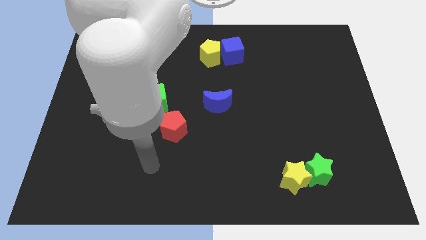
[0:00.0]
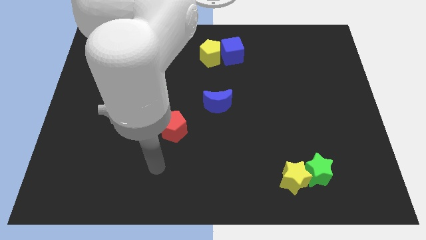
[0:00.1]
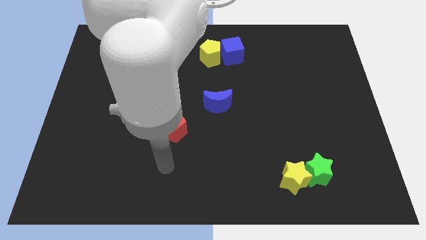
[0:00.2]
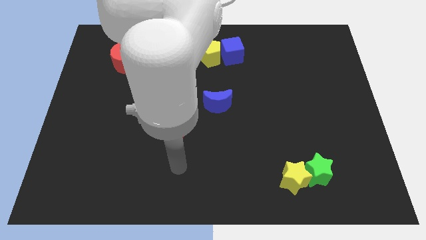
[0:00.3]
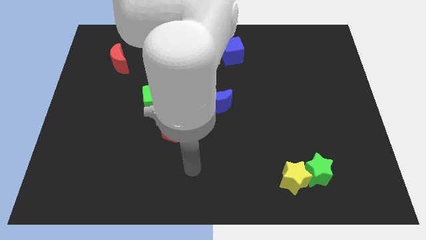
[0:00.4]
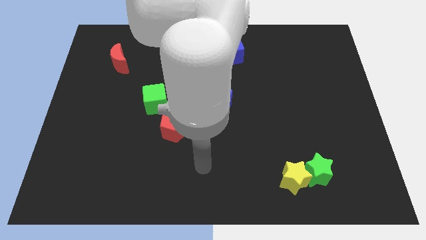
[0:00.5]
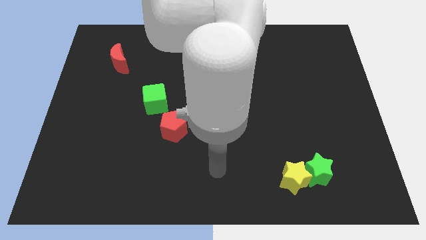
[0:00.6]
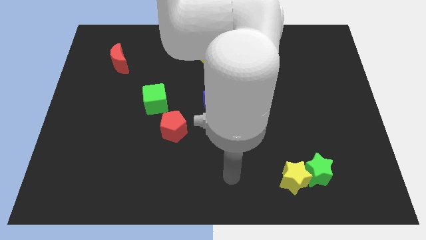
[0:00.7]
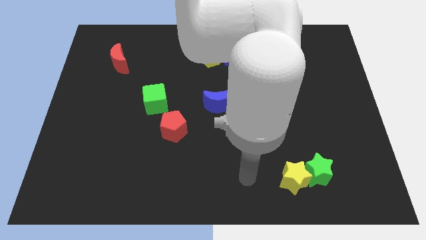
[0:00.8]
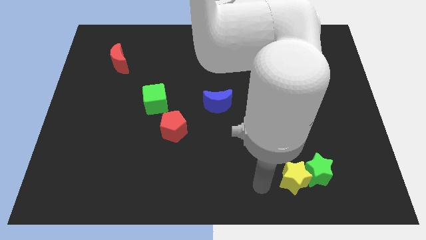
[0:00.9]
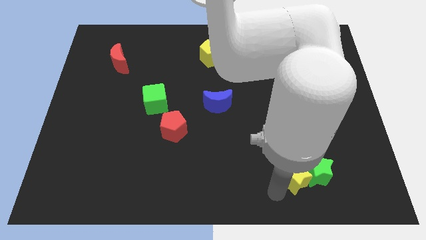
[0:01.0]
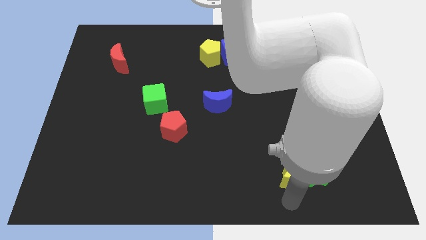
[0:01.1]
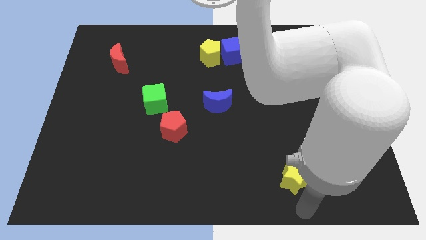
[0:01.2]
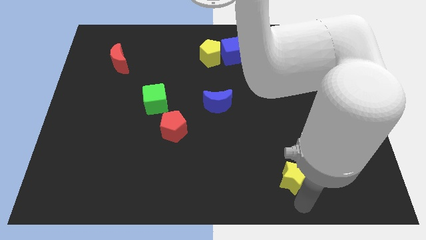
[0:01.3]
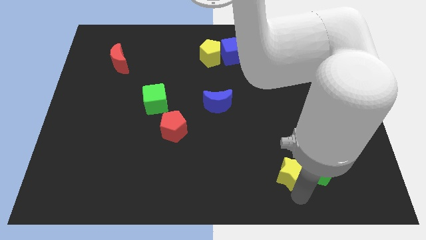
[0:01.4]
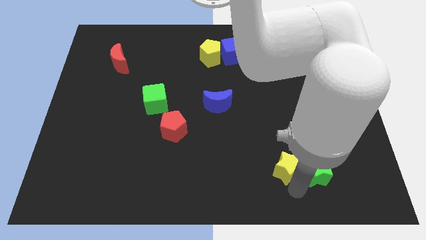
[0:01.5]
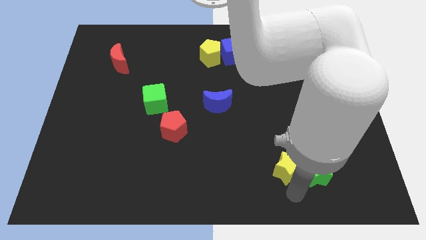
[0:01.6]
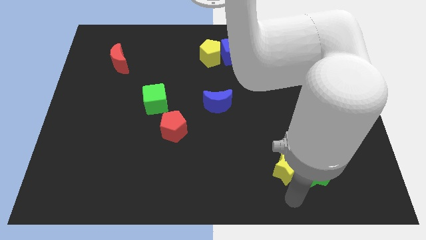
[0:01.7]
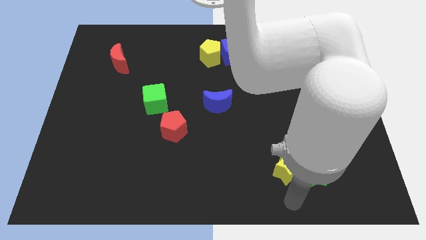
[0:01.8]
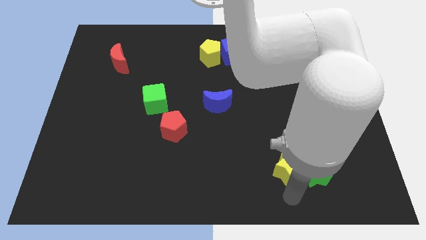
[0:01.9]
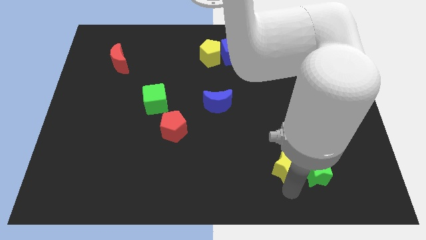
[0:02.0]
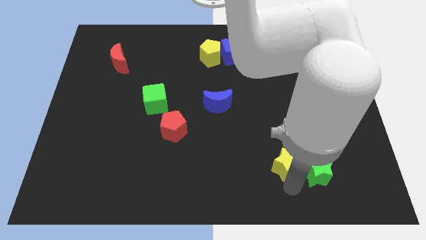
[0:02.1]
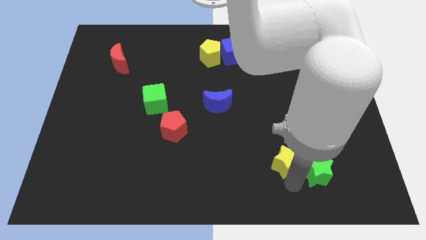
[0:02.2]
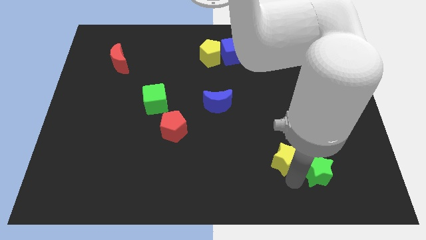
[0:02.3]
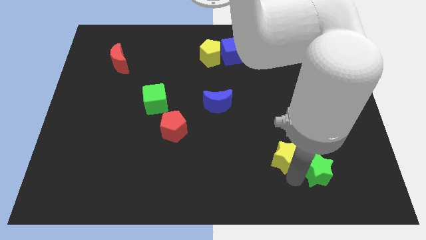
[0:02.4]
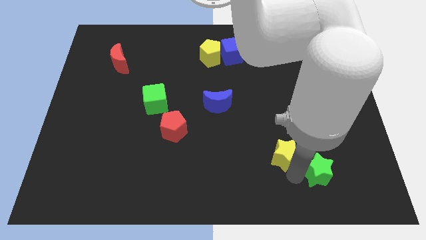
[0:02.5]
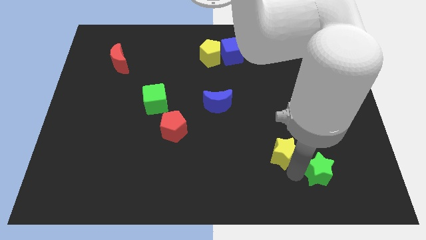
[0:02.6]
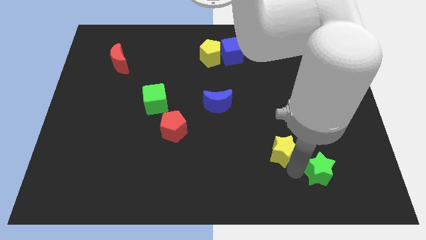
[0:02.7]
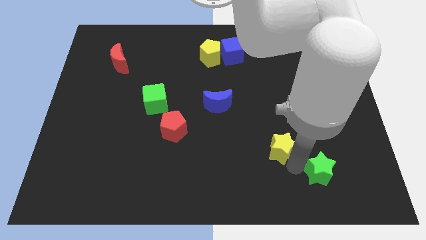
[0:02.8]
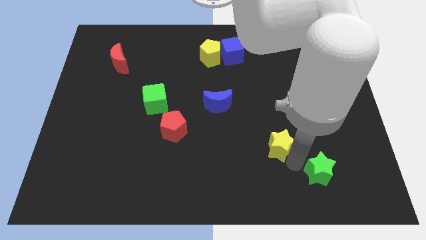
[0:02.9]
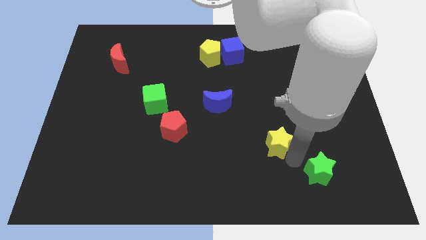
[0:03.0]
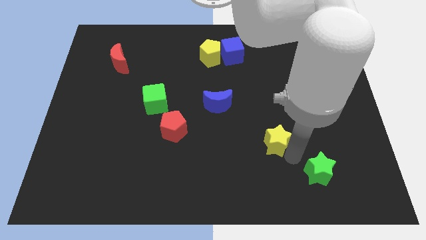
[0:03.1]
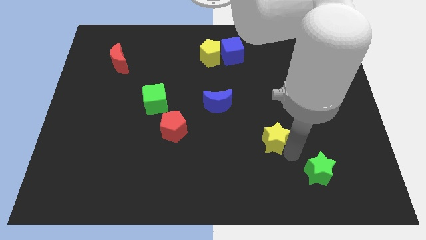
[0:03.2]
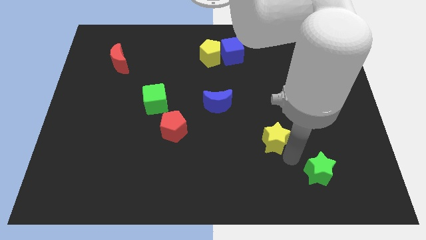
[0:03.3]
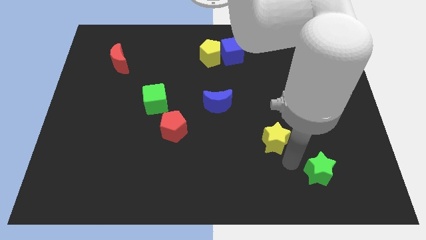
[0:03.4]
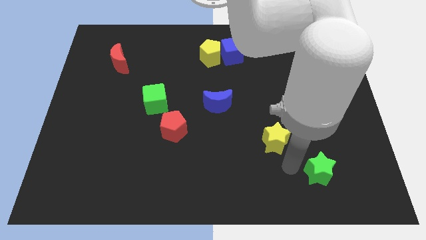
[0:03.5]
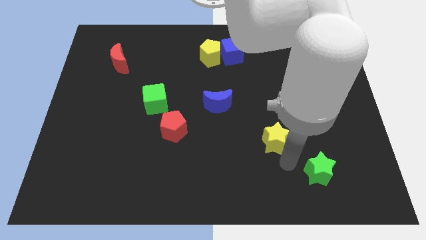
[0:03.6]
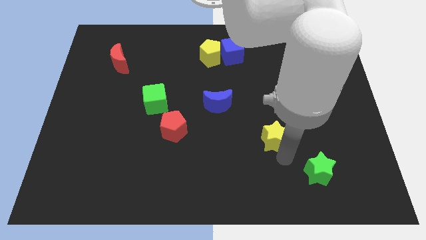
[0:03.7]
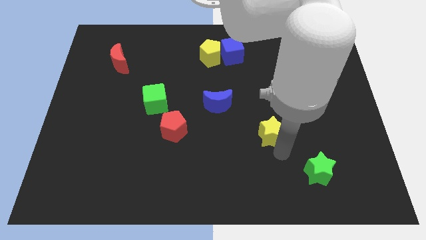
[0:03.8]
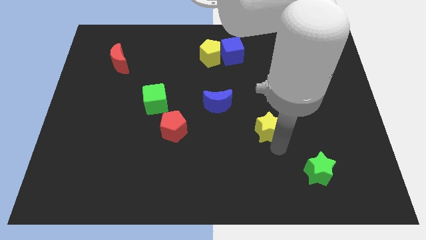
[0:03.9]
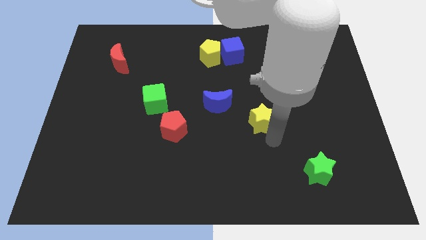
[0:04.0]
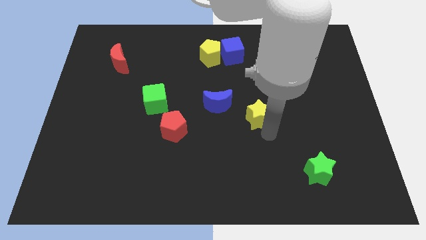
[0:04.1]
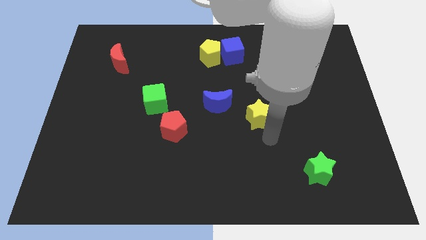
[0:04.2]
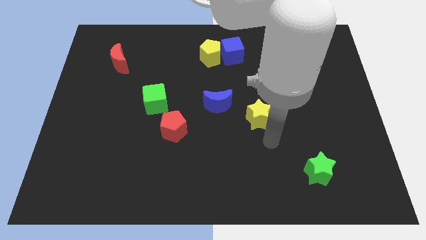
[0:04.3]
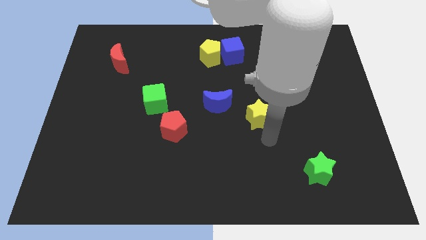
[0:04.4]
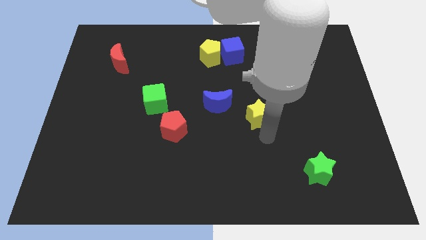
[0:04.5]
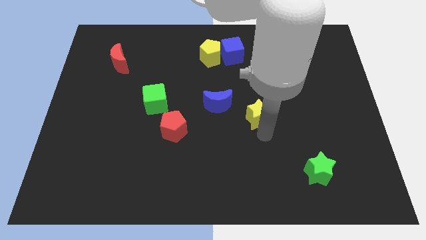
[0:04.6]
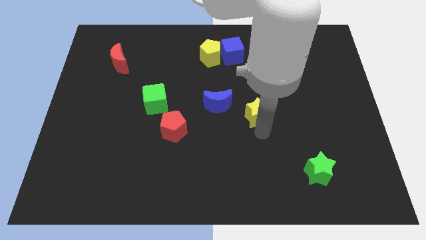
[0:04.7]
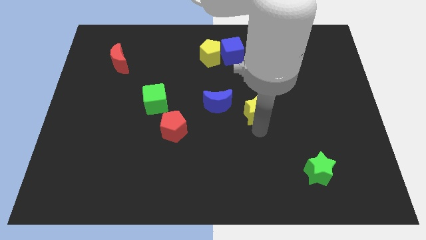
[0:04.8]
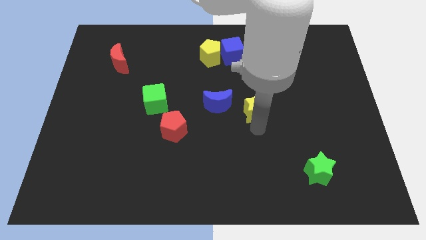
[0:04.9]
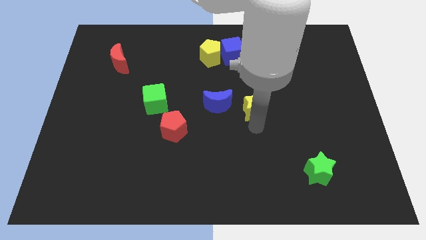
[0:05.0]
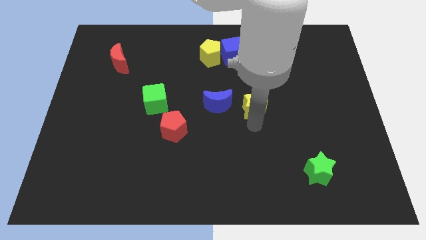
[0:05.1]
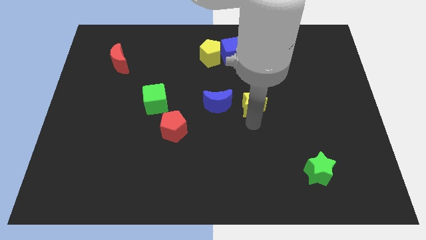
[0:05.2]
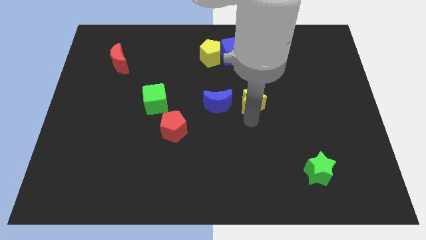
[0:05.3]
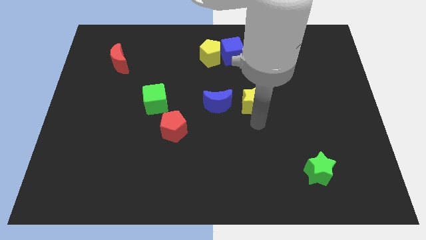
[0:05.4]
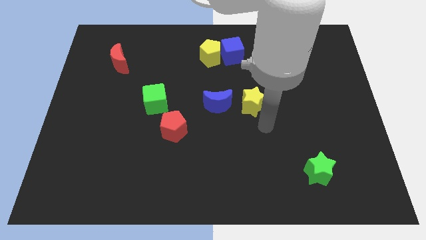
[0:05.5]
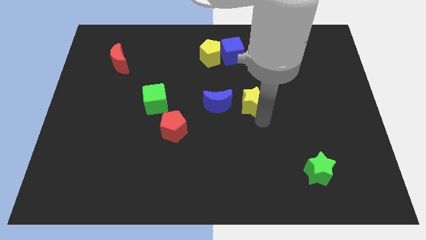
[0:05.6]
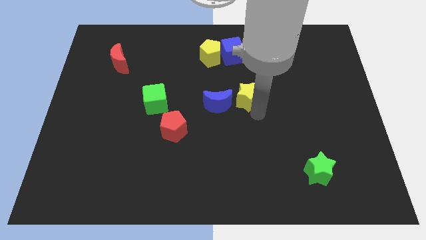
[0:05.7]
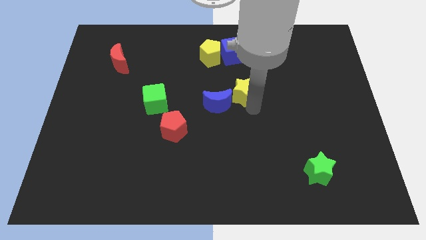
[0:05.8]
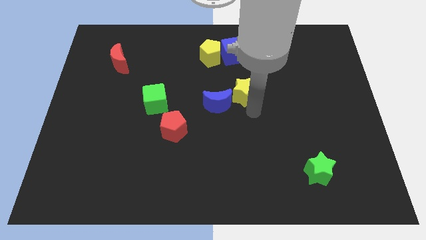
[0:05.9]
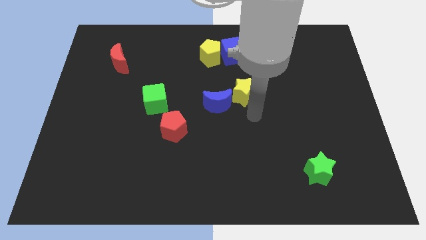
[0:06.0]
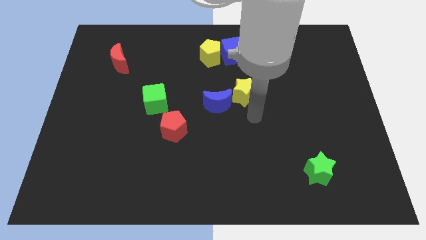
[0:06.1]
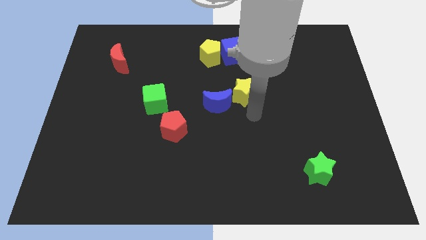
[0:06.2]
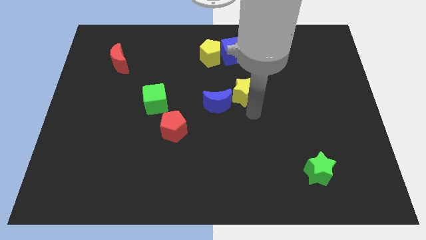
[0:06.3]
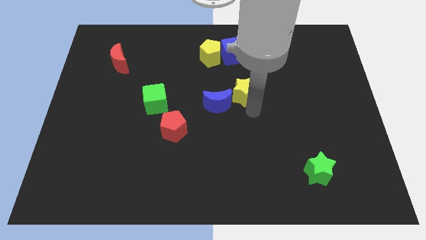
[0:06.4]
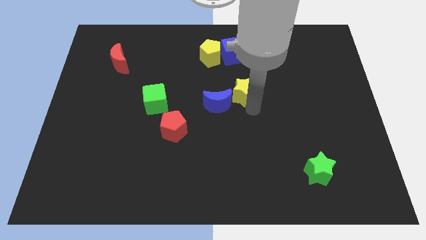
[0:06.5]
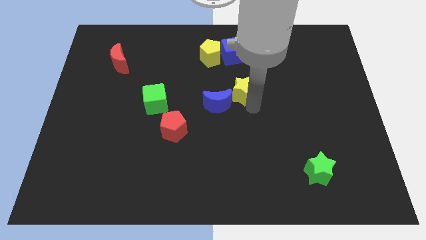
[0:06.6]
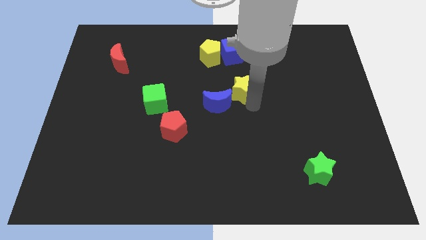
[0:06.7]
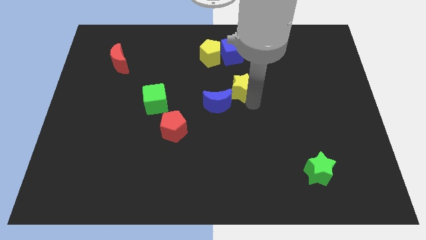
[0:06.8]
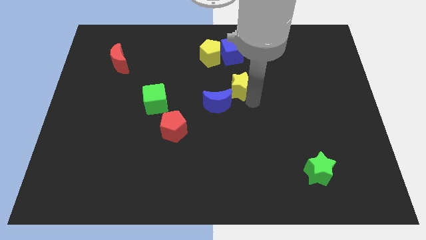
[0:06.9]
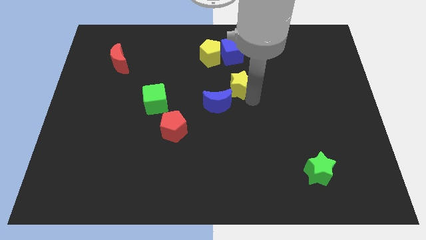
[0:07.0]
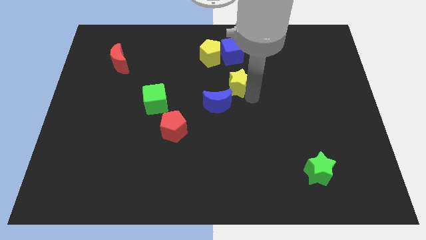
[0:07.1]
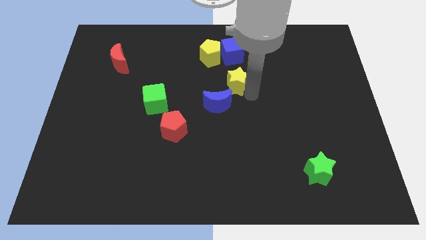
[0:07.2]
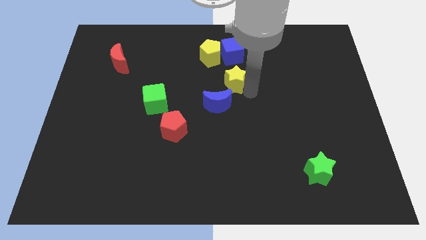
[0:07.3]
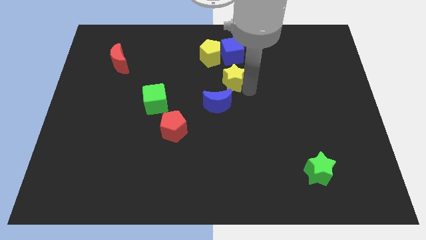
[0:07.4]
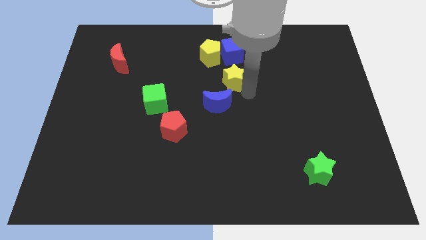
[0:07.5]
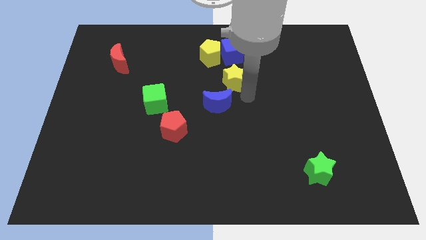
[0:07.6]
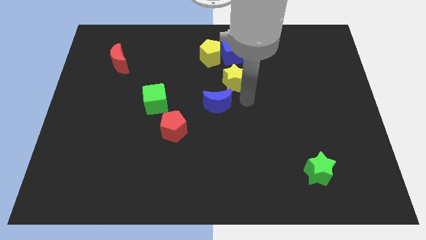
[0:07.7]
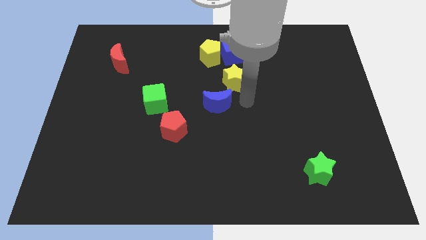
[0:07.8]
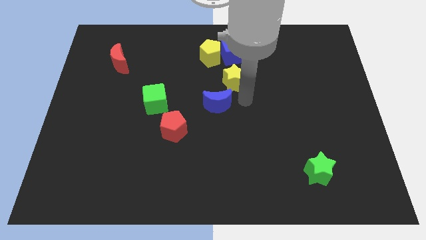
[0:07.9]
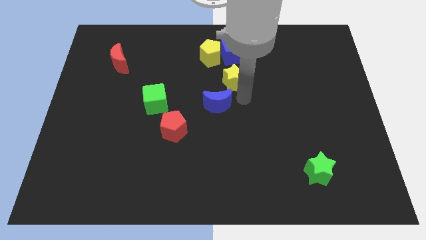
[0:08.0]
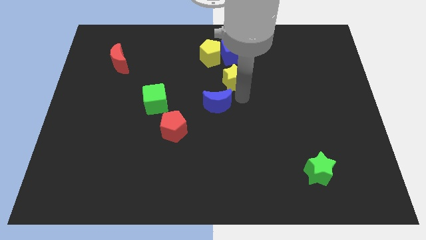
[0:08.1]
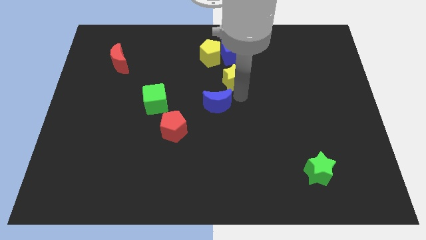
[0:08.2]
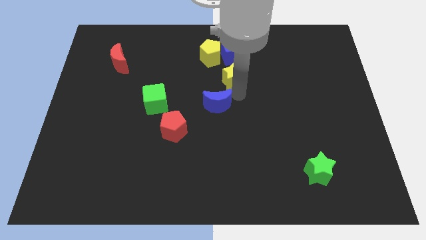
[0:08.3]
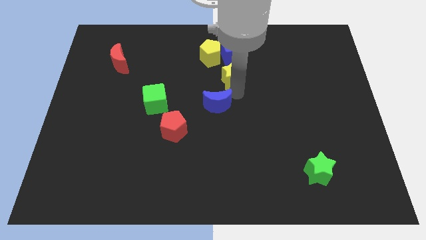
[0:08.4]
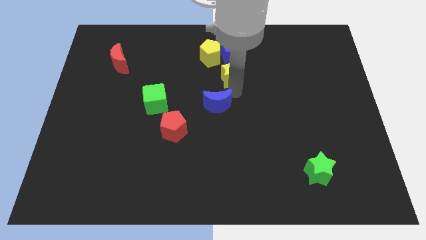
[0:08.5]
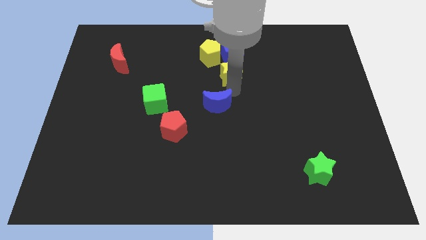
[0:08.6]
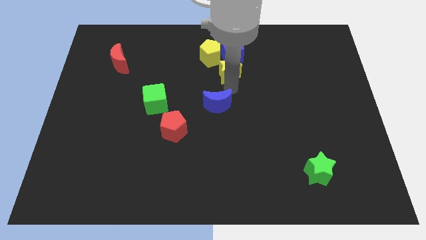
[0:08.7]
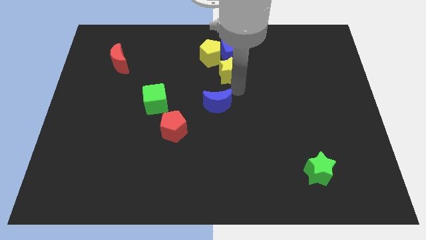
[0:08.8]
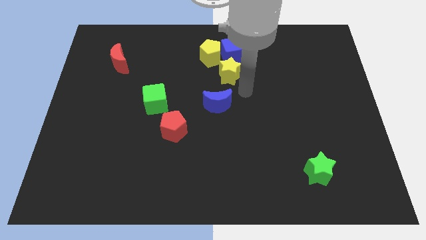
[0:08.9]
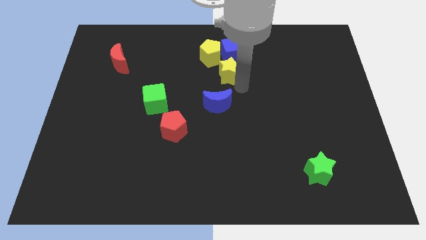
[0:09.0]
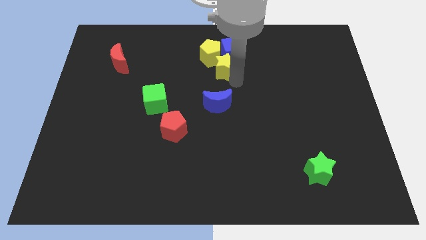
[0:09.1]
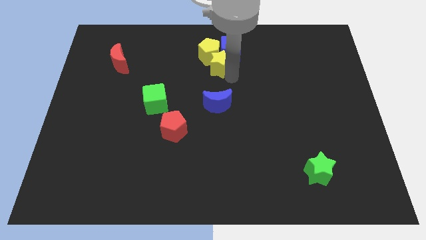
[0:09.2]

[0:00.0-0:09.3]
push the yellow star next to the yellow pentagon
